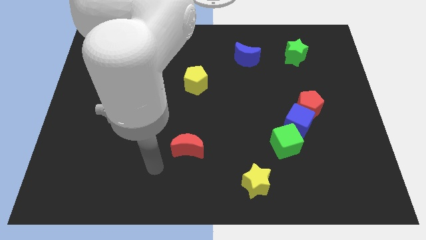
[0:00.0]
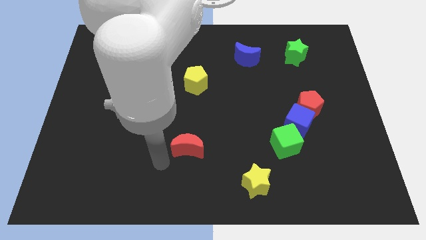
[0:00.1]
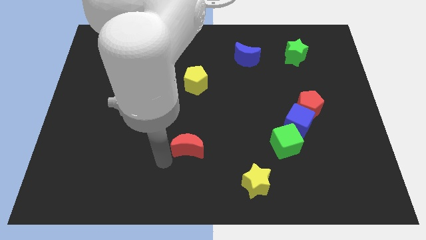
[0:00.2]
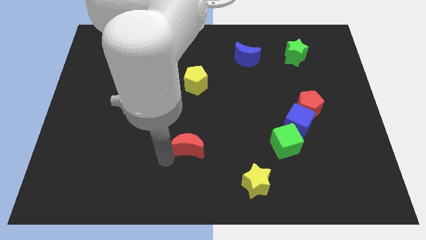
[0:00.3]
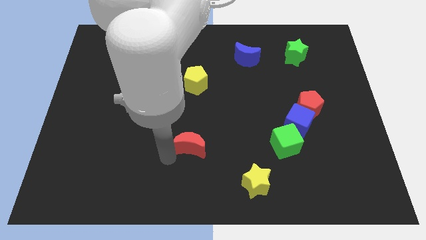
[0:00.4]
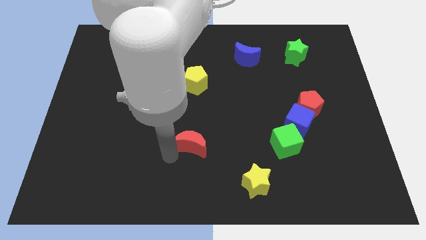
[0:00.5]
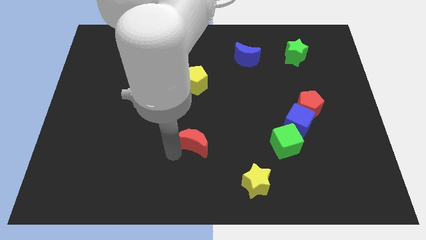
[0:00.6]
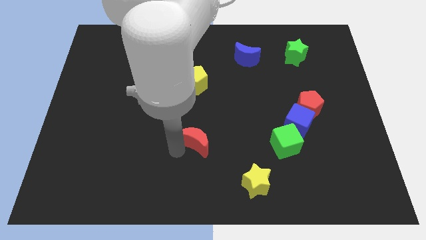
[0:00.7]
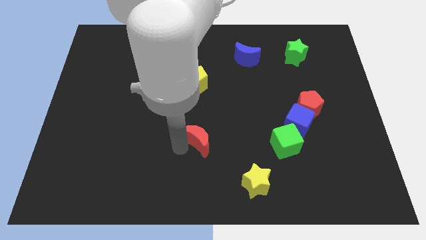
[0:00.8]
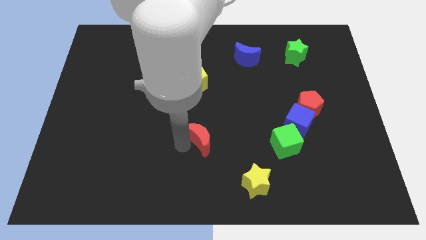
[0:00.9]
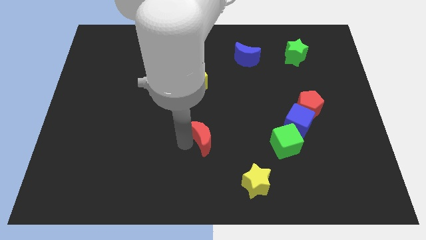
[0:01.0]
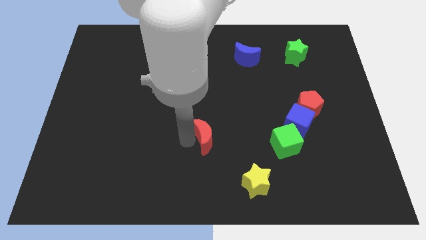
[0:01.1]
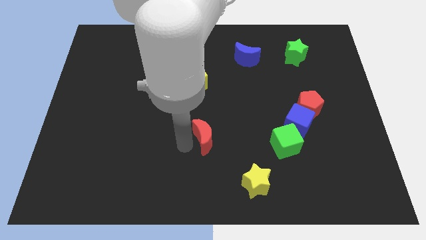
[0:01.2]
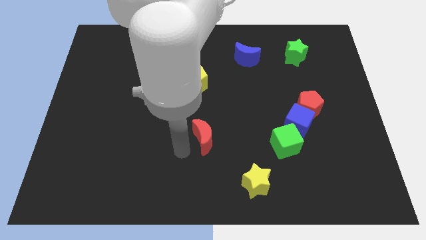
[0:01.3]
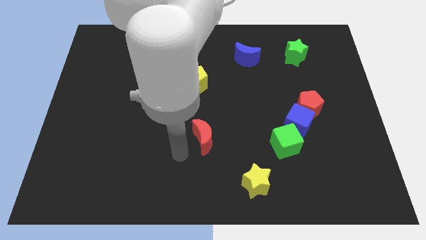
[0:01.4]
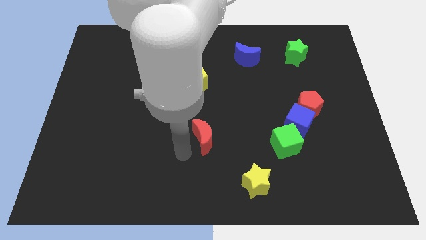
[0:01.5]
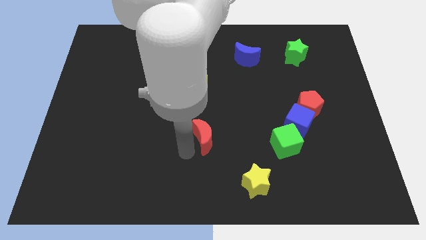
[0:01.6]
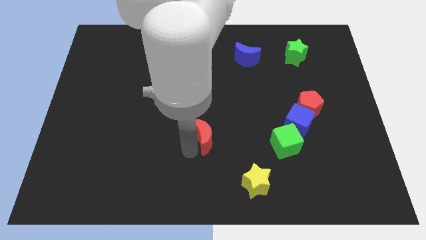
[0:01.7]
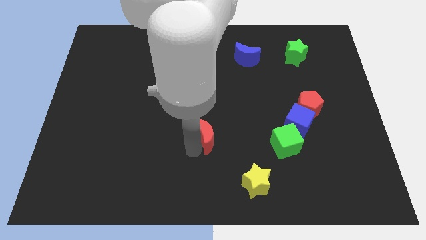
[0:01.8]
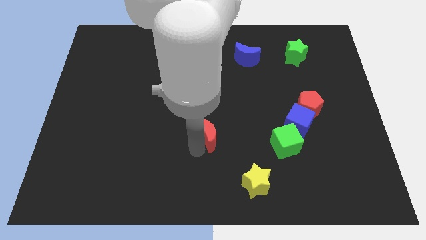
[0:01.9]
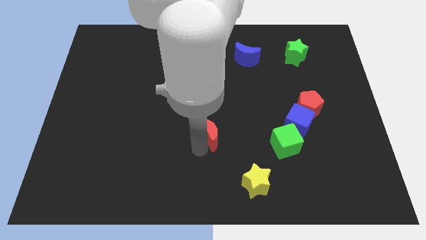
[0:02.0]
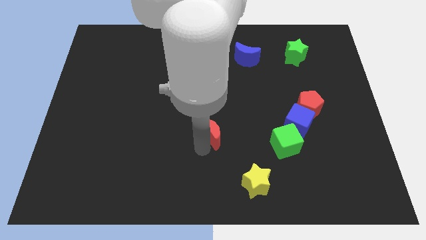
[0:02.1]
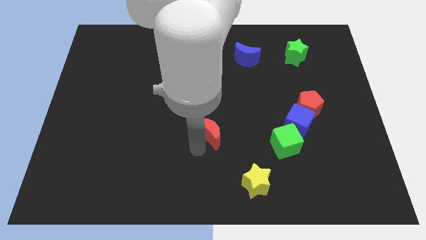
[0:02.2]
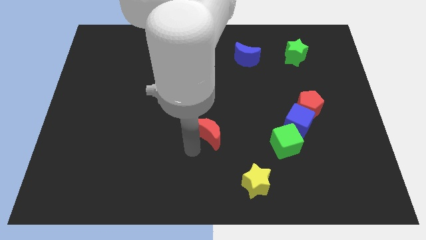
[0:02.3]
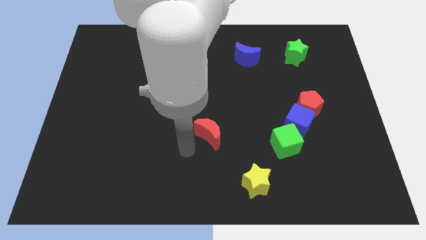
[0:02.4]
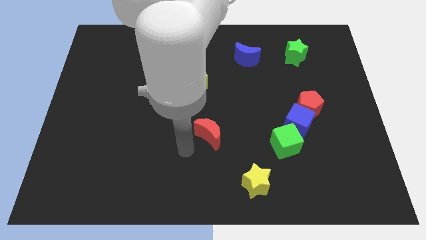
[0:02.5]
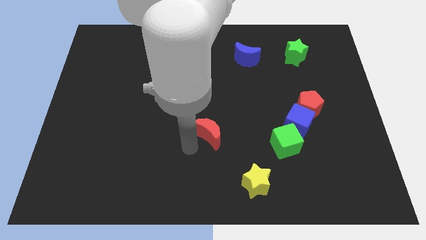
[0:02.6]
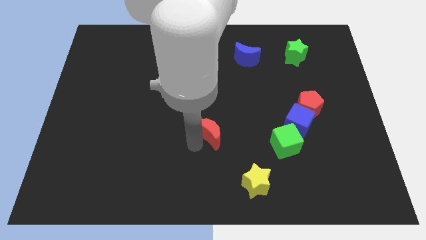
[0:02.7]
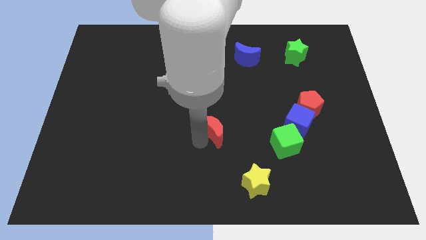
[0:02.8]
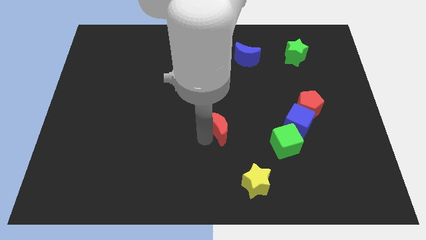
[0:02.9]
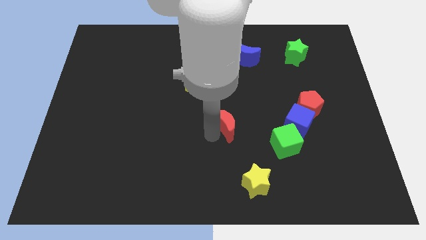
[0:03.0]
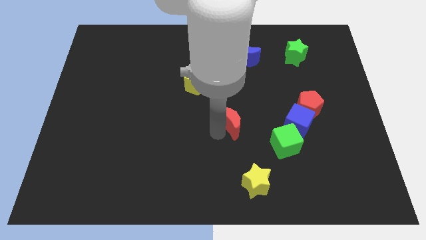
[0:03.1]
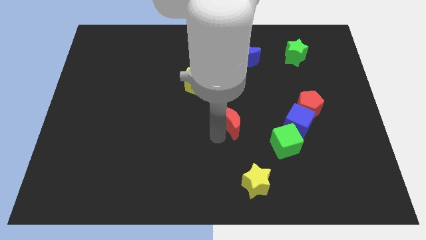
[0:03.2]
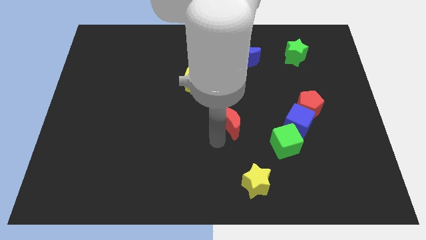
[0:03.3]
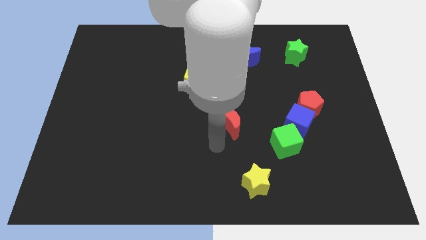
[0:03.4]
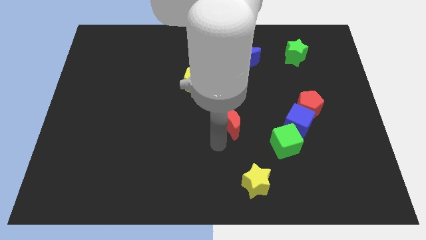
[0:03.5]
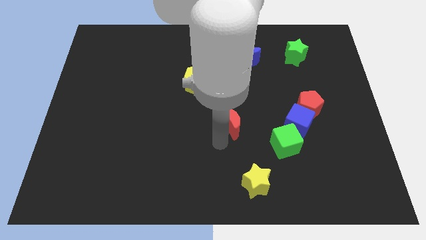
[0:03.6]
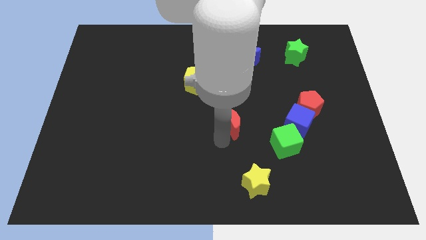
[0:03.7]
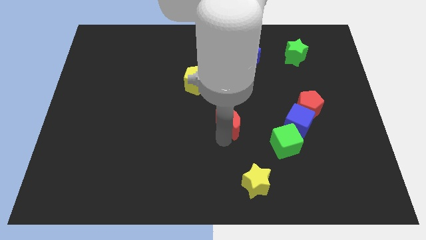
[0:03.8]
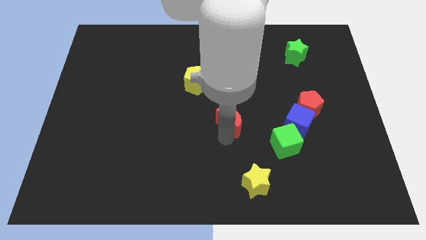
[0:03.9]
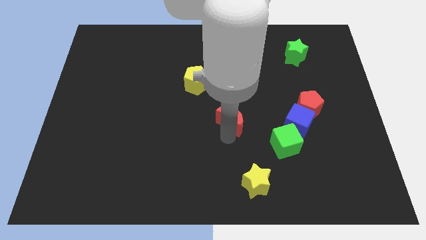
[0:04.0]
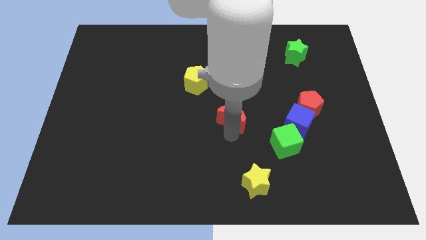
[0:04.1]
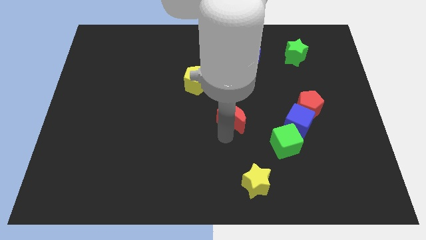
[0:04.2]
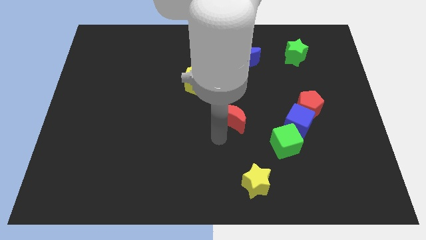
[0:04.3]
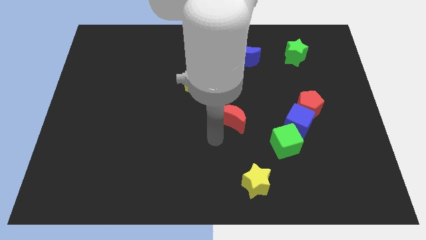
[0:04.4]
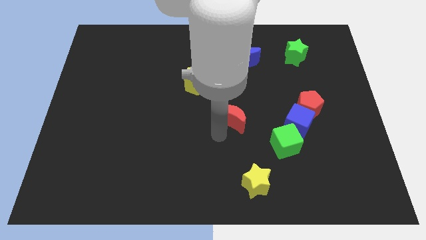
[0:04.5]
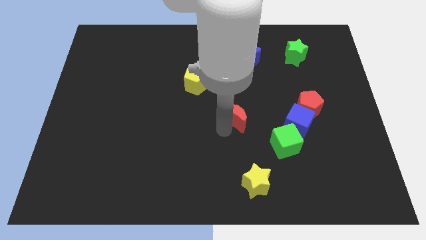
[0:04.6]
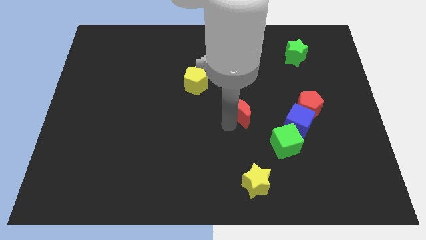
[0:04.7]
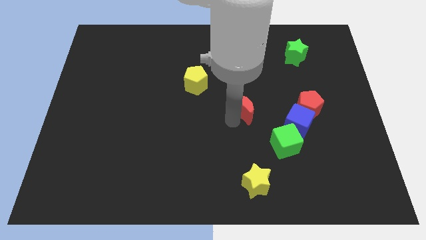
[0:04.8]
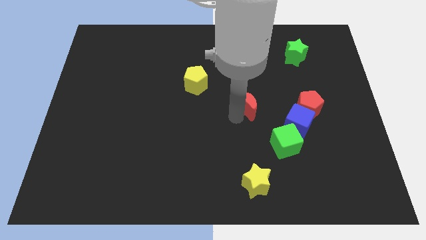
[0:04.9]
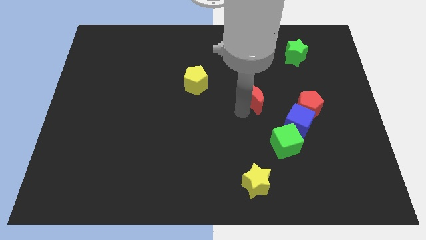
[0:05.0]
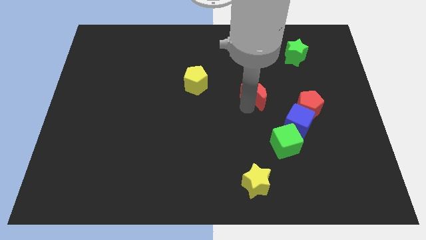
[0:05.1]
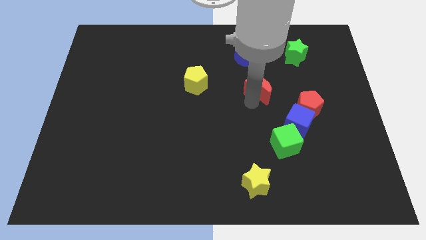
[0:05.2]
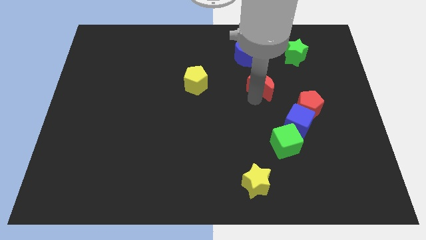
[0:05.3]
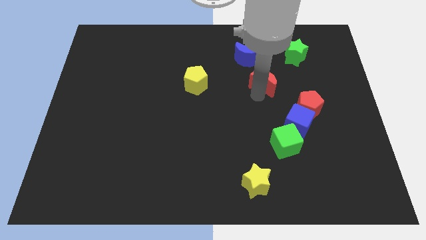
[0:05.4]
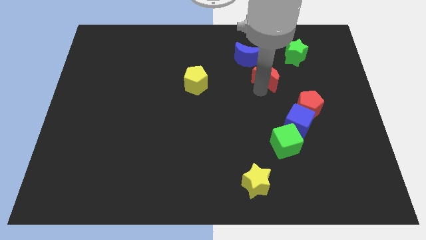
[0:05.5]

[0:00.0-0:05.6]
push the red moon to the bottom left of the green star

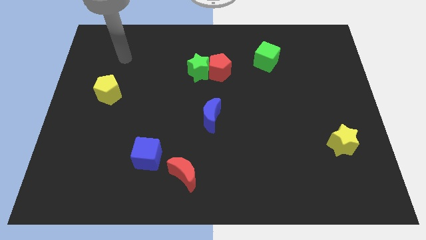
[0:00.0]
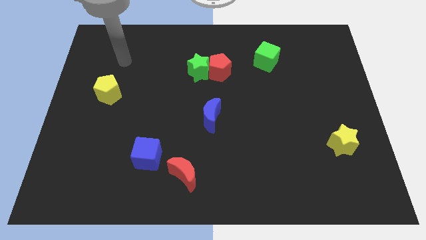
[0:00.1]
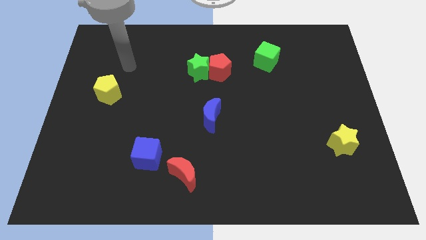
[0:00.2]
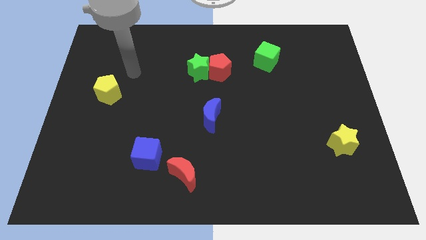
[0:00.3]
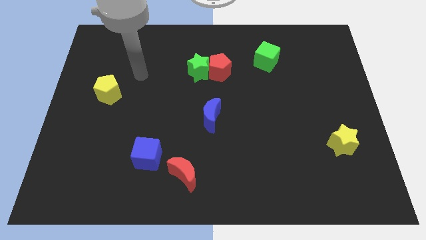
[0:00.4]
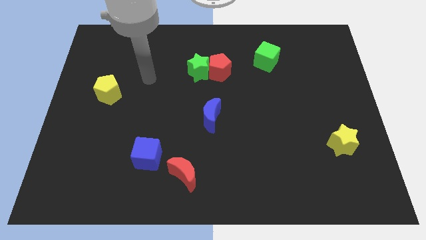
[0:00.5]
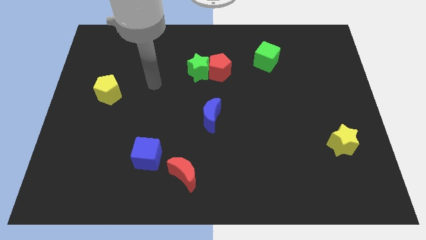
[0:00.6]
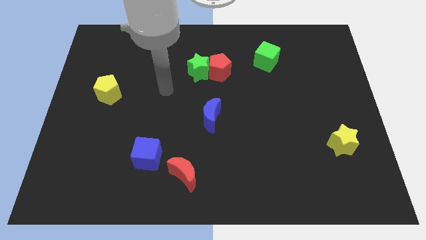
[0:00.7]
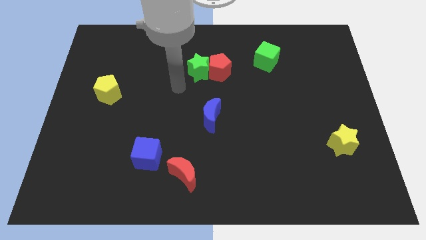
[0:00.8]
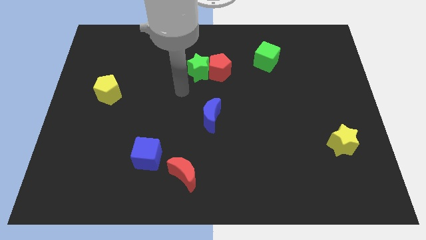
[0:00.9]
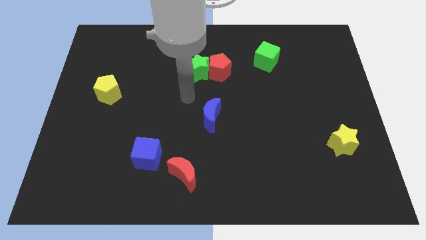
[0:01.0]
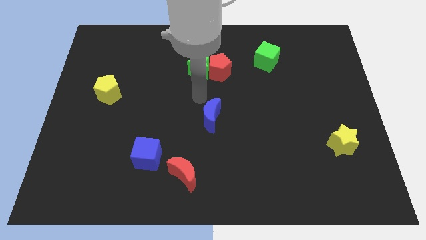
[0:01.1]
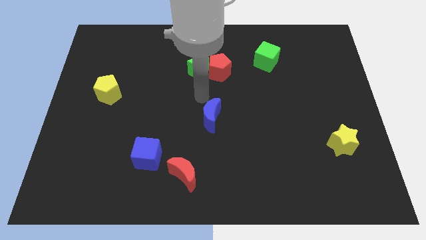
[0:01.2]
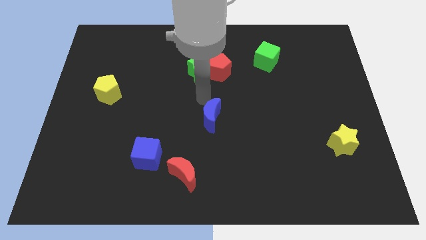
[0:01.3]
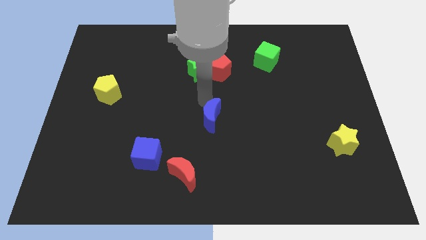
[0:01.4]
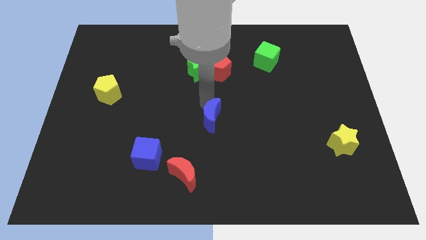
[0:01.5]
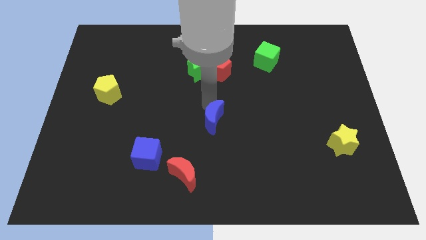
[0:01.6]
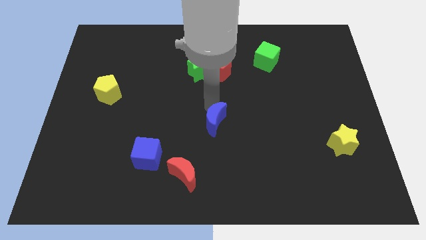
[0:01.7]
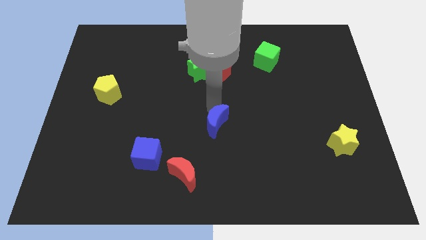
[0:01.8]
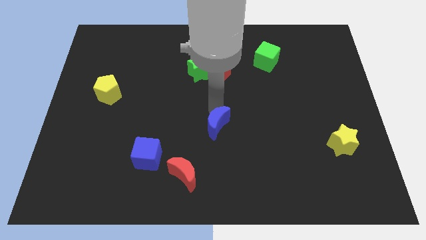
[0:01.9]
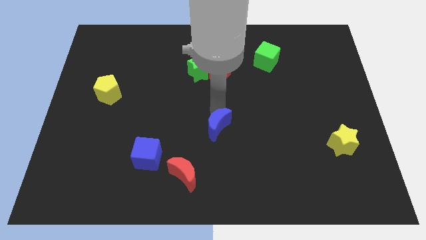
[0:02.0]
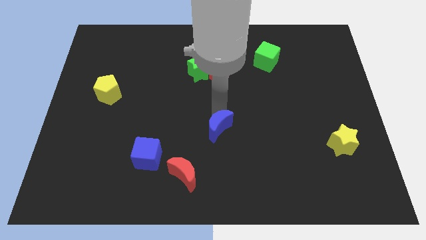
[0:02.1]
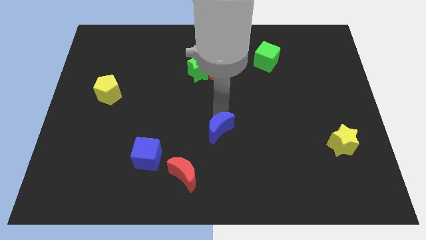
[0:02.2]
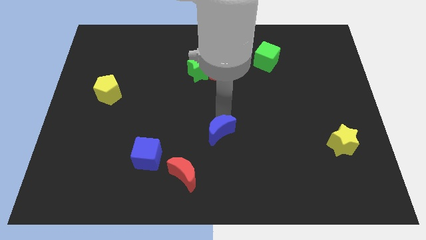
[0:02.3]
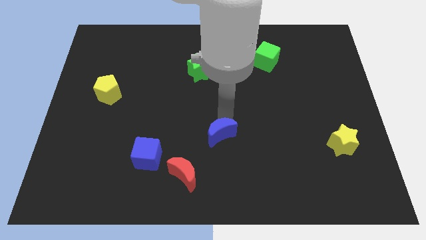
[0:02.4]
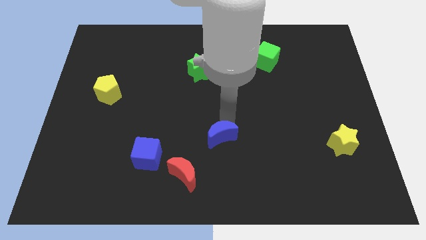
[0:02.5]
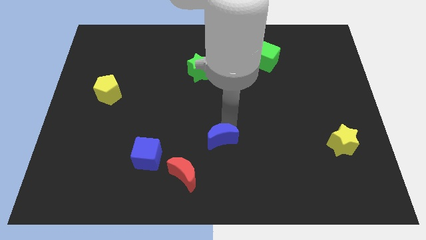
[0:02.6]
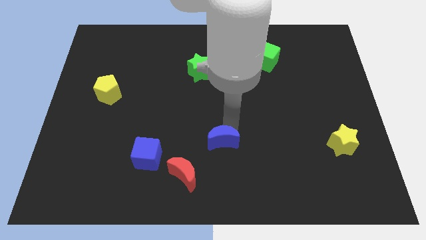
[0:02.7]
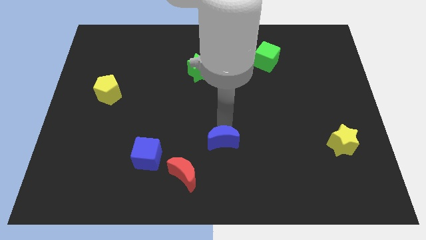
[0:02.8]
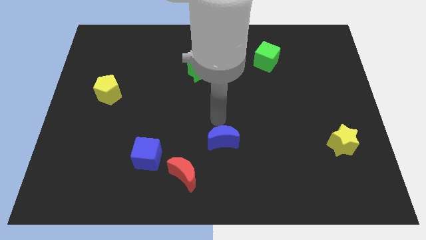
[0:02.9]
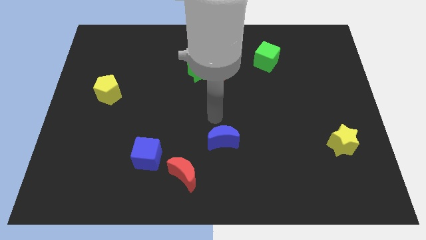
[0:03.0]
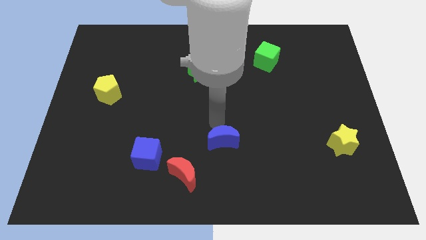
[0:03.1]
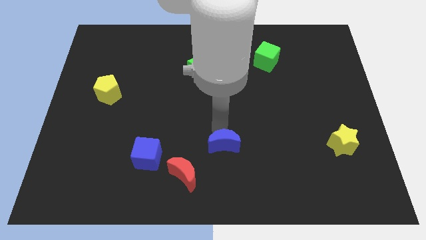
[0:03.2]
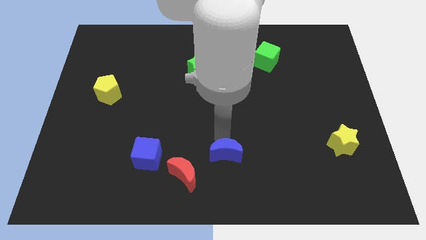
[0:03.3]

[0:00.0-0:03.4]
move the blue moon right of the red moon
